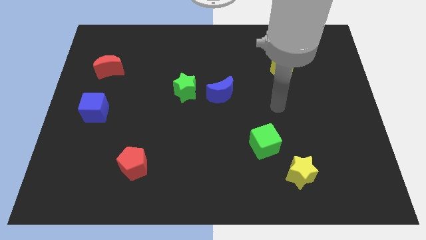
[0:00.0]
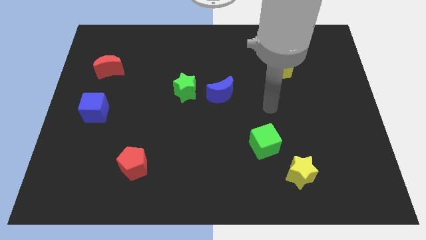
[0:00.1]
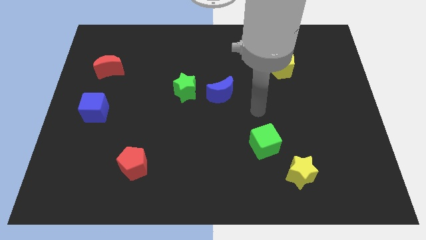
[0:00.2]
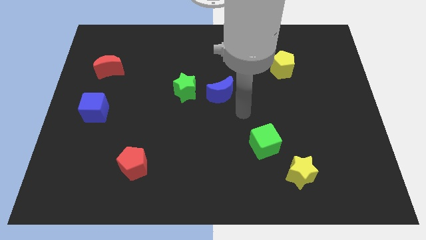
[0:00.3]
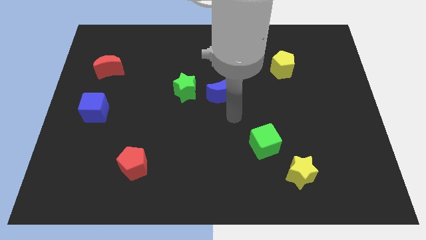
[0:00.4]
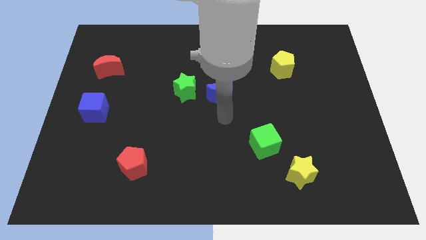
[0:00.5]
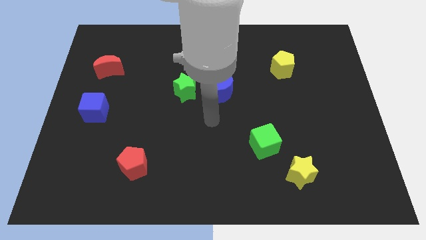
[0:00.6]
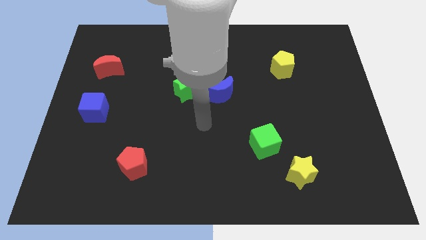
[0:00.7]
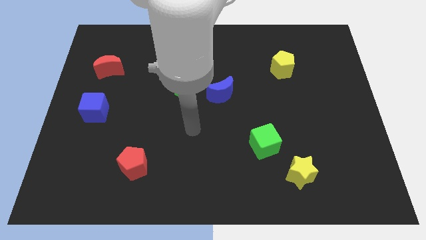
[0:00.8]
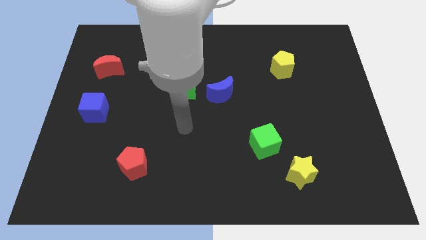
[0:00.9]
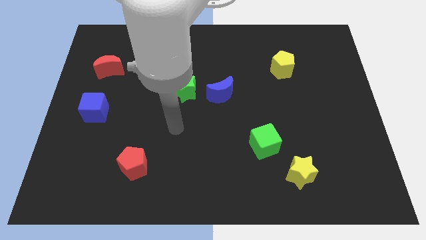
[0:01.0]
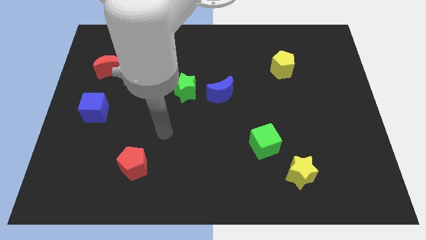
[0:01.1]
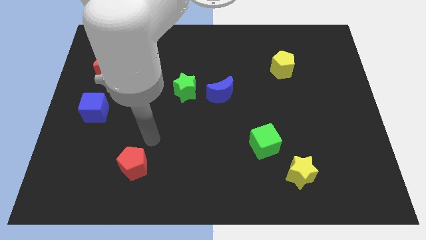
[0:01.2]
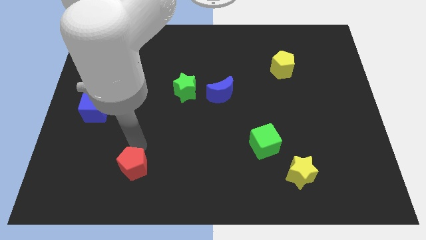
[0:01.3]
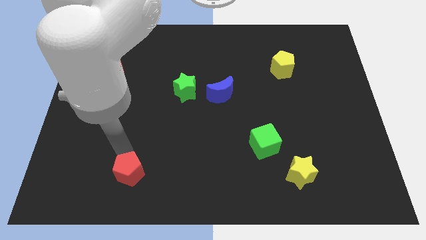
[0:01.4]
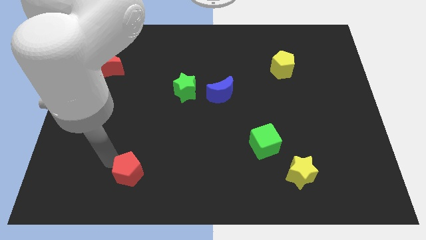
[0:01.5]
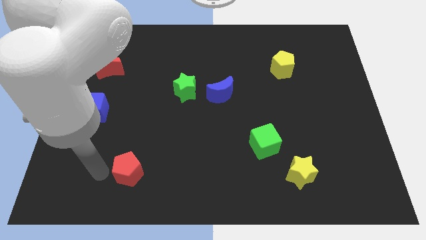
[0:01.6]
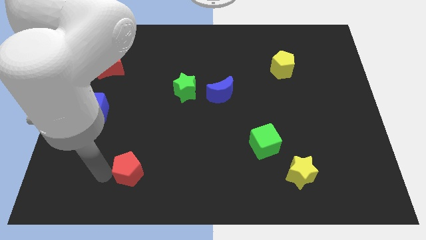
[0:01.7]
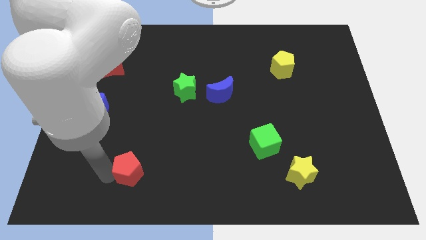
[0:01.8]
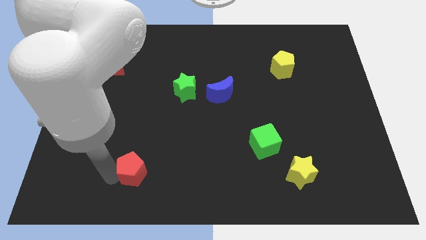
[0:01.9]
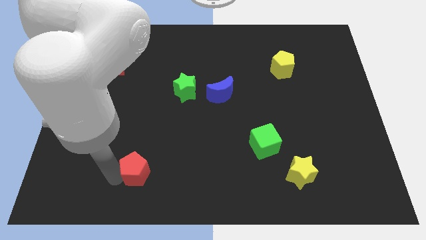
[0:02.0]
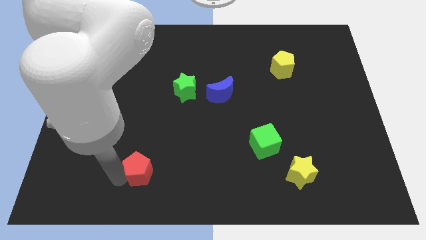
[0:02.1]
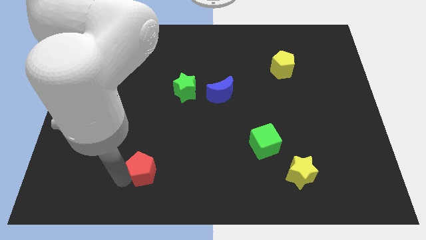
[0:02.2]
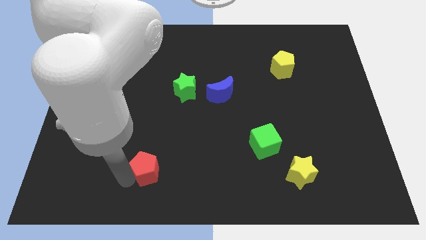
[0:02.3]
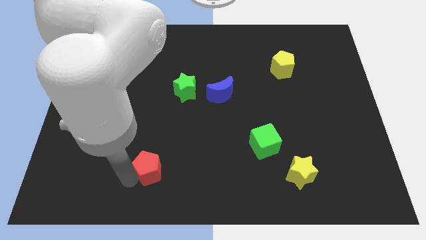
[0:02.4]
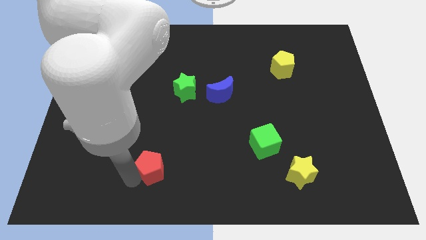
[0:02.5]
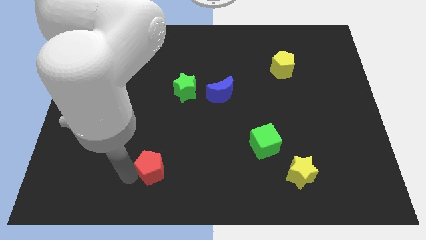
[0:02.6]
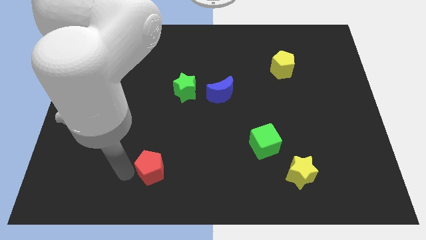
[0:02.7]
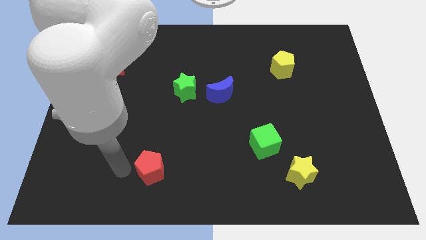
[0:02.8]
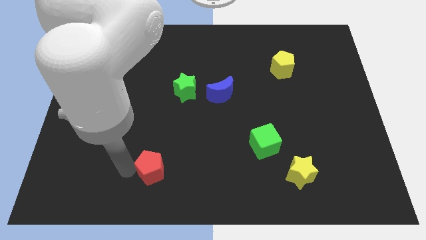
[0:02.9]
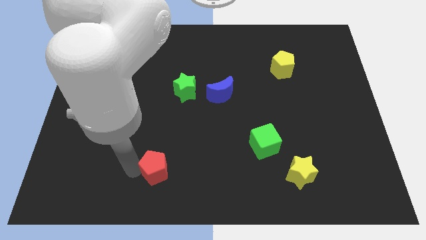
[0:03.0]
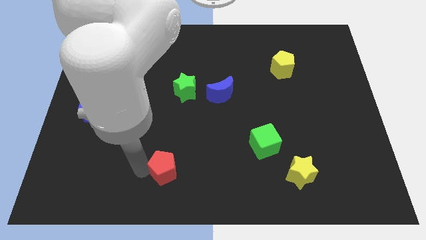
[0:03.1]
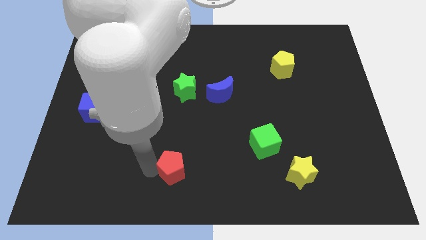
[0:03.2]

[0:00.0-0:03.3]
slightly push the red pentagon right

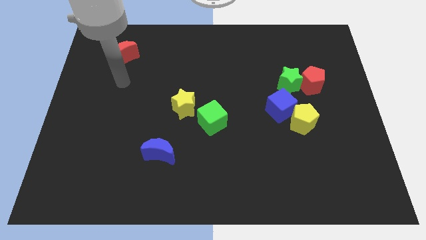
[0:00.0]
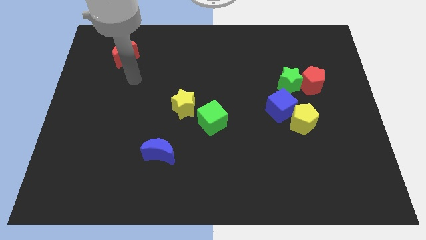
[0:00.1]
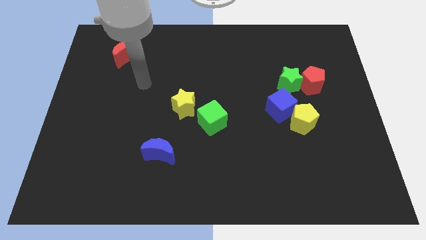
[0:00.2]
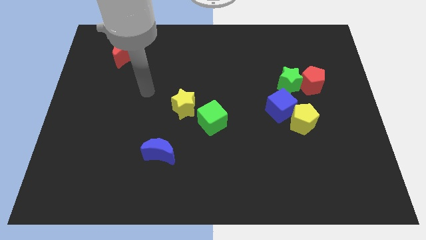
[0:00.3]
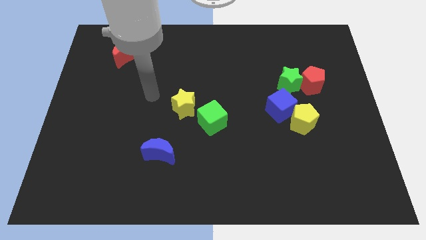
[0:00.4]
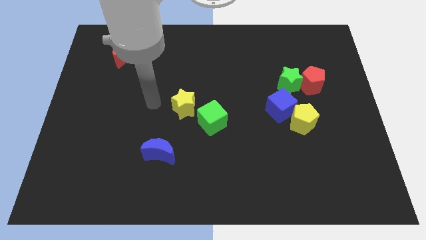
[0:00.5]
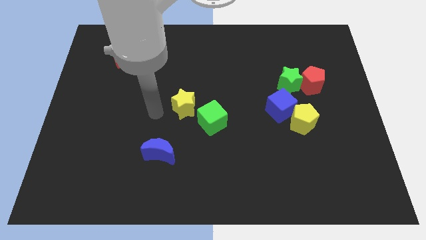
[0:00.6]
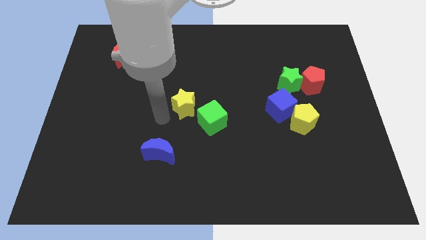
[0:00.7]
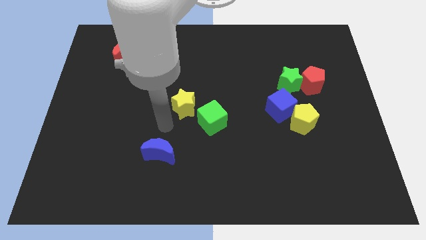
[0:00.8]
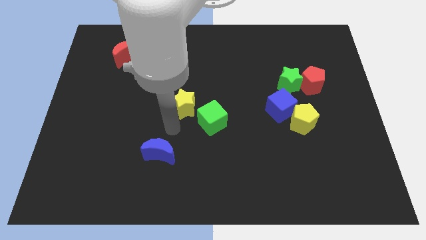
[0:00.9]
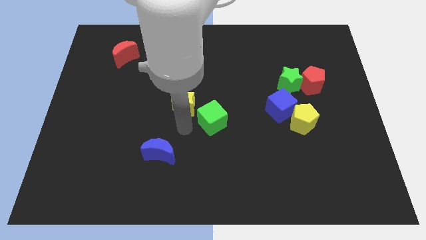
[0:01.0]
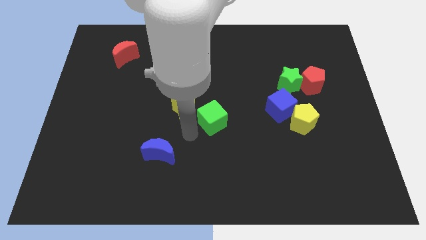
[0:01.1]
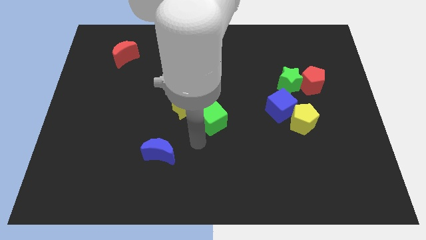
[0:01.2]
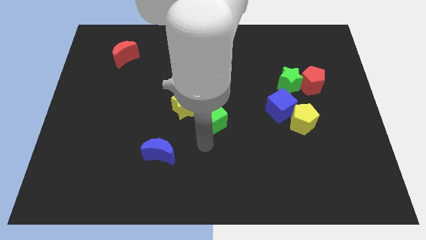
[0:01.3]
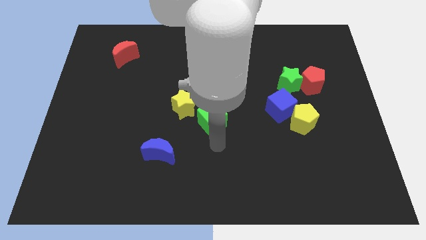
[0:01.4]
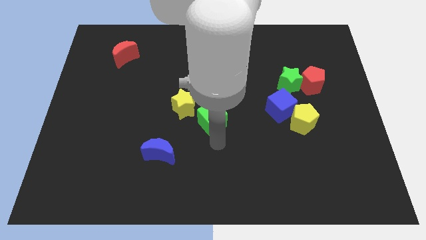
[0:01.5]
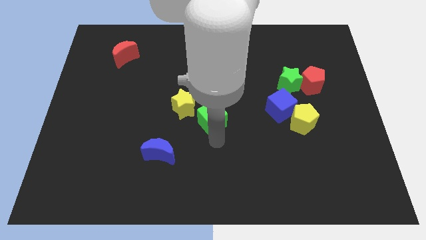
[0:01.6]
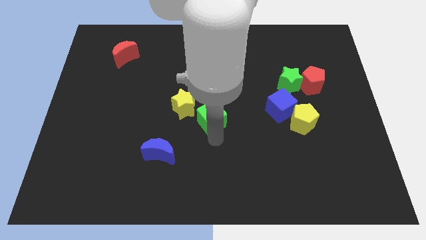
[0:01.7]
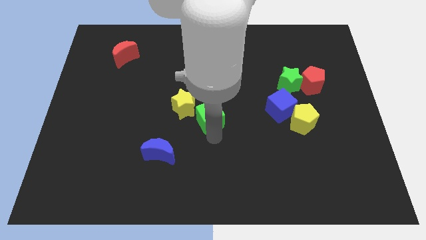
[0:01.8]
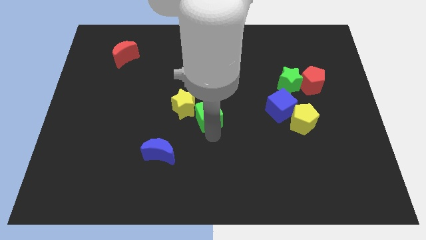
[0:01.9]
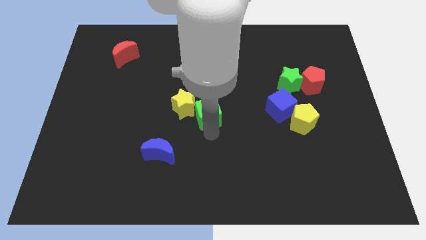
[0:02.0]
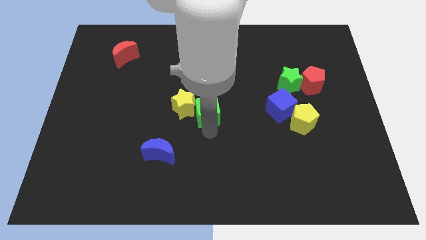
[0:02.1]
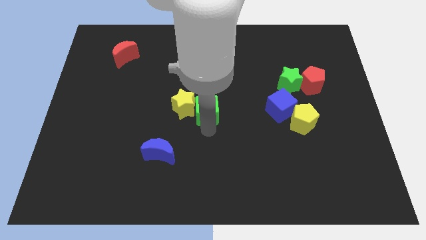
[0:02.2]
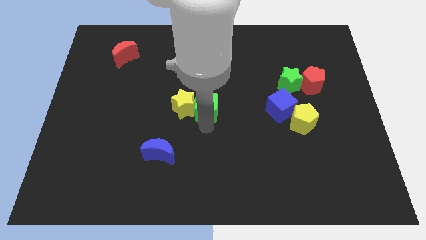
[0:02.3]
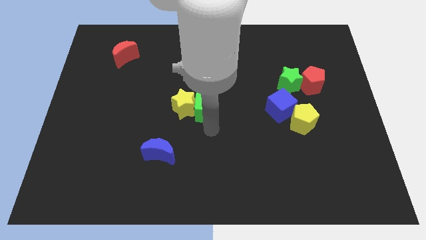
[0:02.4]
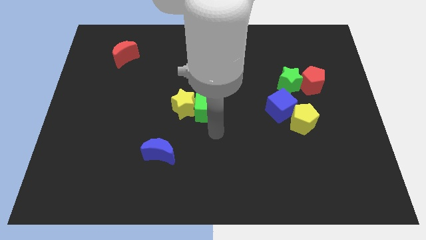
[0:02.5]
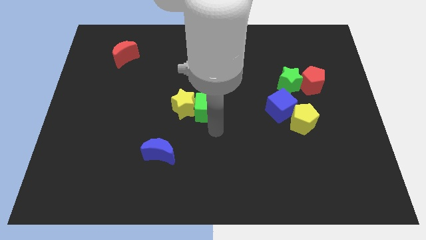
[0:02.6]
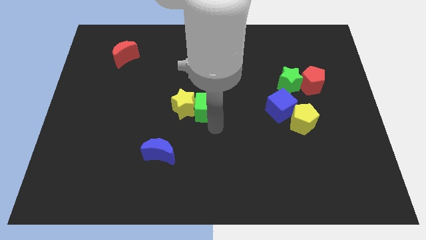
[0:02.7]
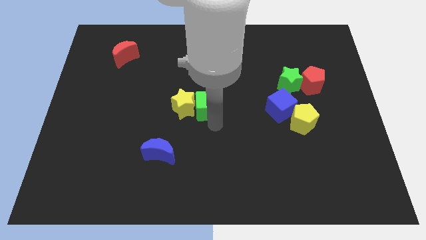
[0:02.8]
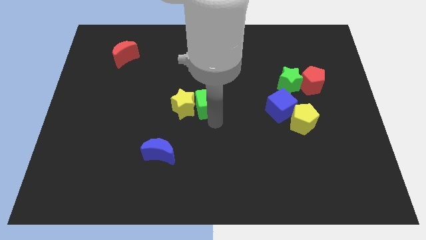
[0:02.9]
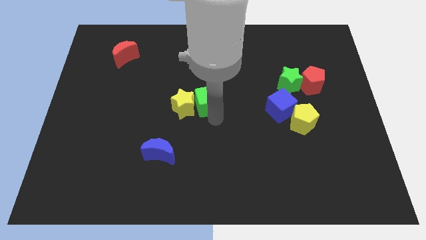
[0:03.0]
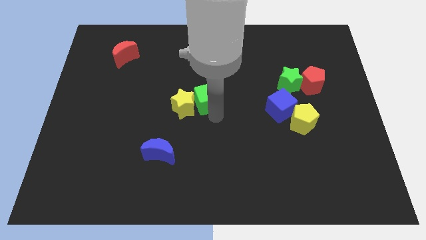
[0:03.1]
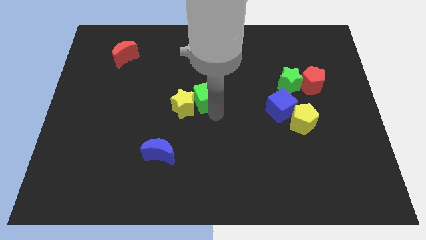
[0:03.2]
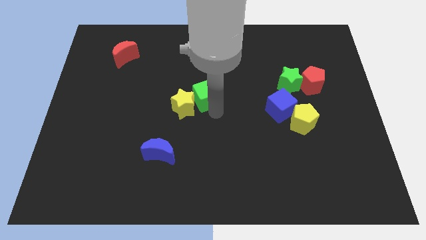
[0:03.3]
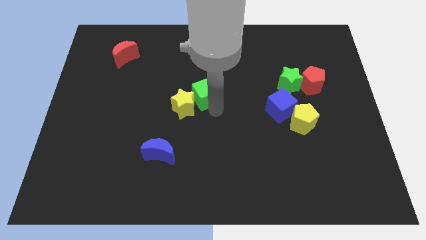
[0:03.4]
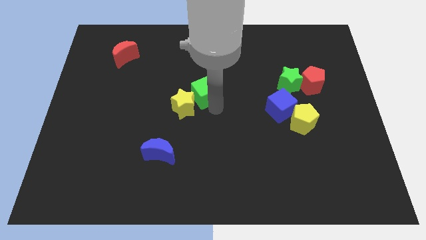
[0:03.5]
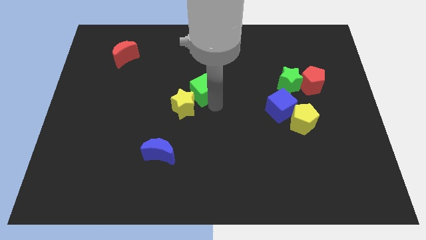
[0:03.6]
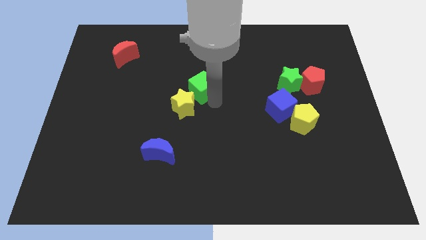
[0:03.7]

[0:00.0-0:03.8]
push the green cube somewhat diagonally upwards and to the left

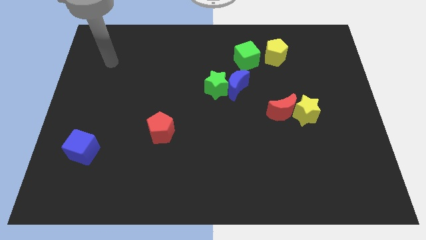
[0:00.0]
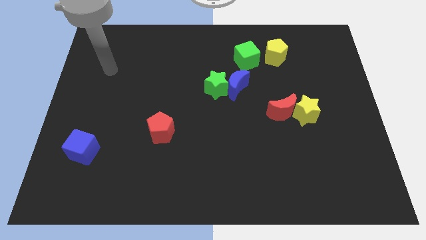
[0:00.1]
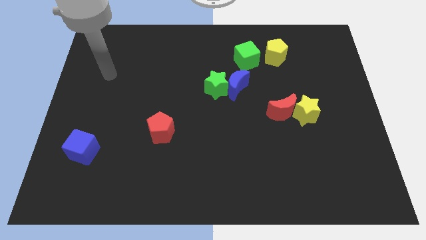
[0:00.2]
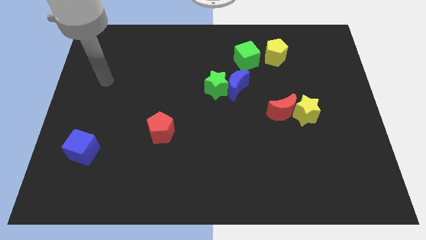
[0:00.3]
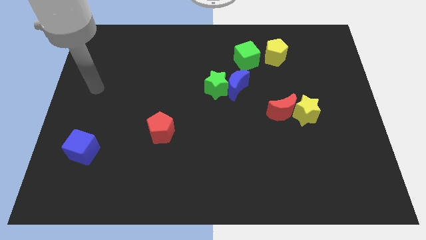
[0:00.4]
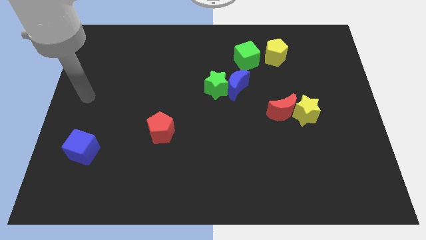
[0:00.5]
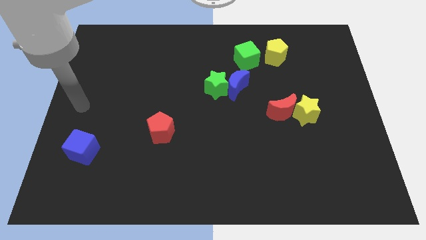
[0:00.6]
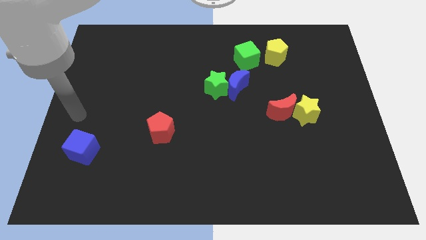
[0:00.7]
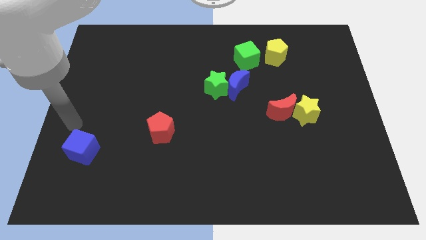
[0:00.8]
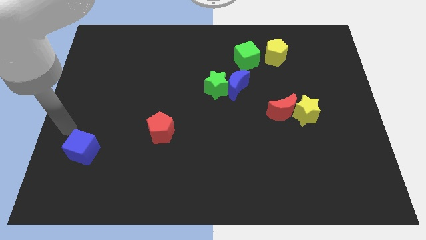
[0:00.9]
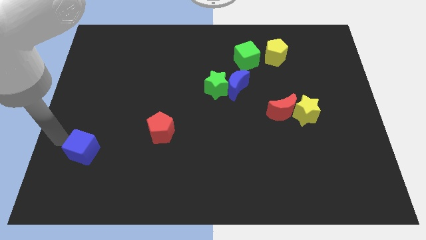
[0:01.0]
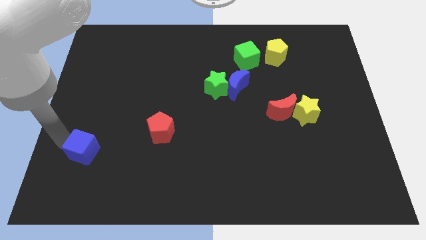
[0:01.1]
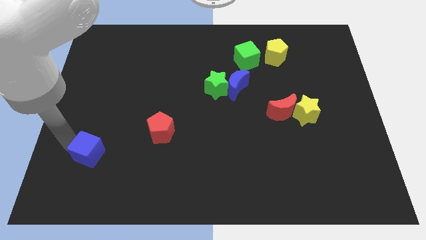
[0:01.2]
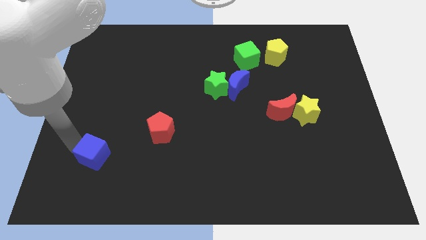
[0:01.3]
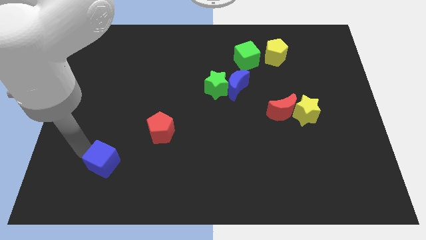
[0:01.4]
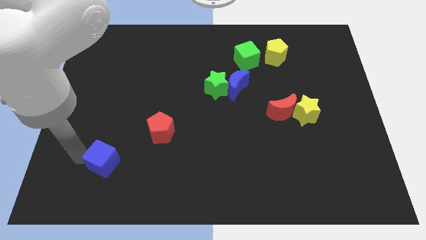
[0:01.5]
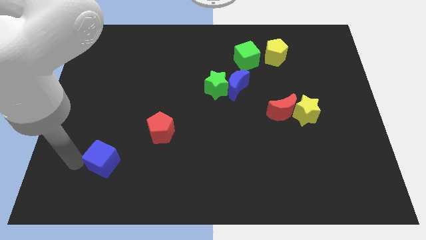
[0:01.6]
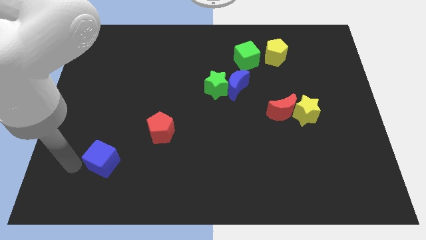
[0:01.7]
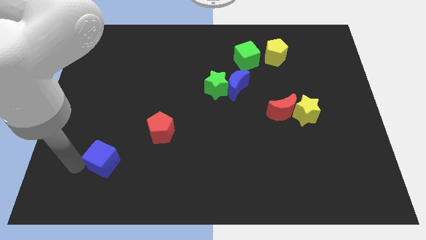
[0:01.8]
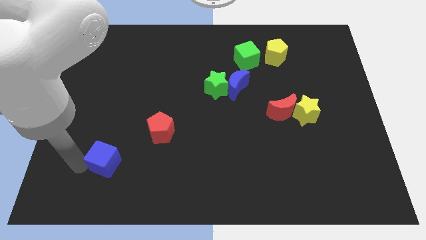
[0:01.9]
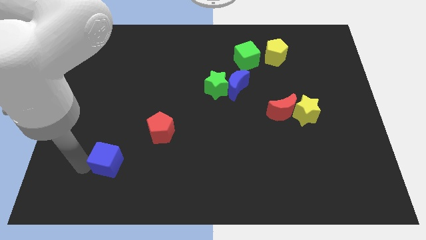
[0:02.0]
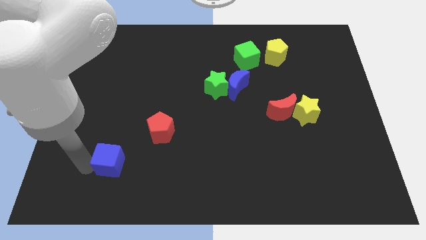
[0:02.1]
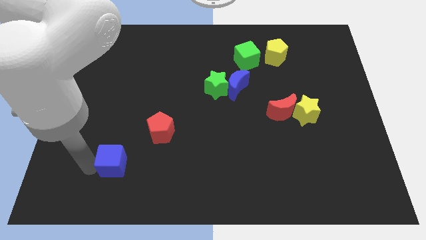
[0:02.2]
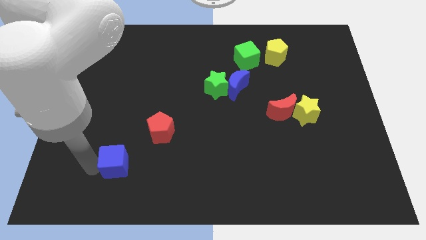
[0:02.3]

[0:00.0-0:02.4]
push the blue cube a little to the right
